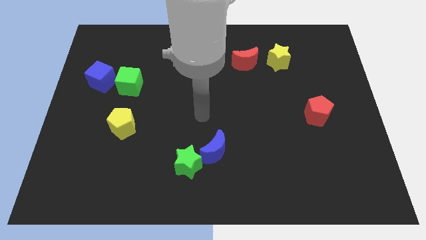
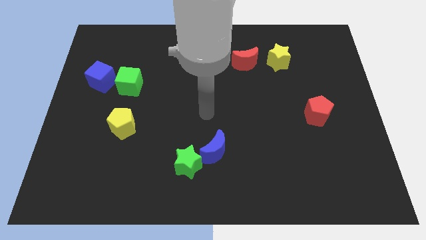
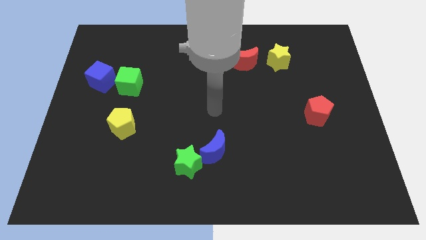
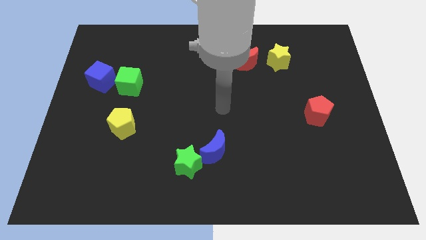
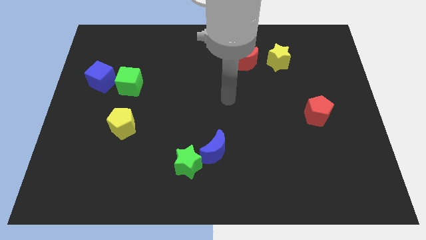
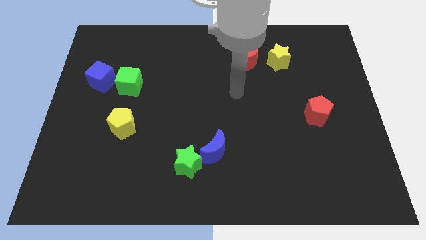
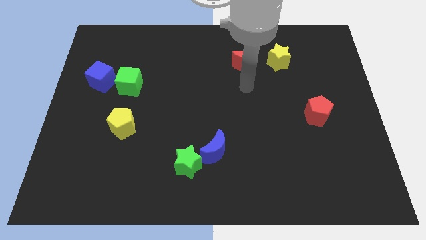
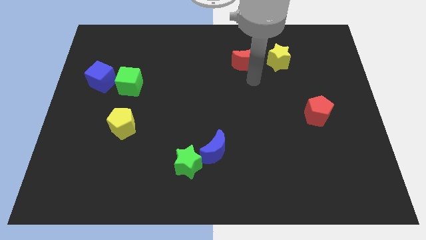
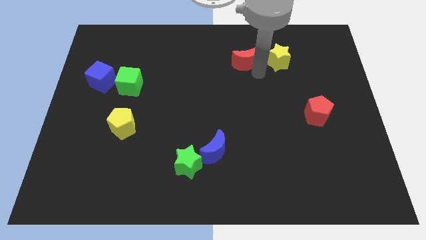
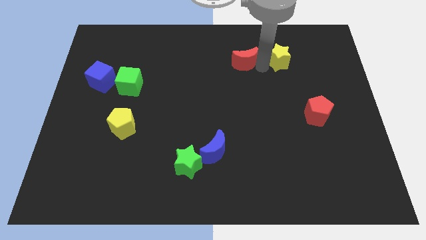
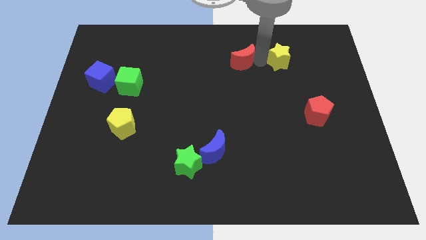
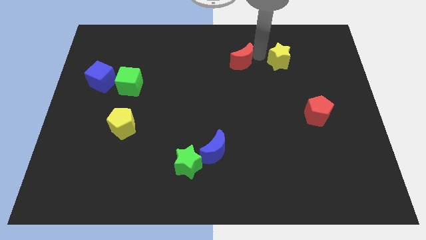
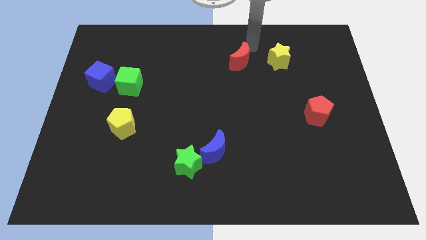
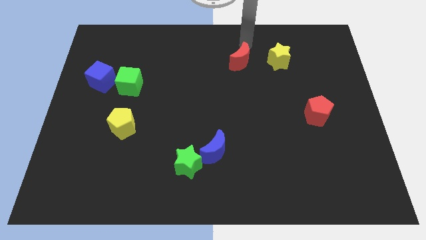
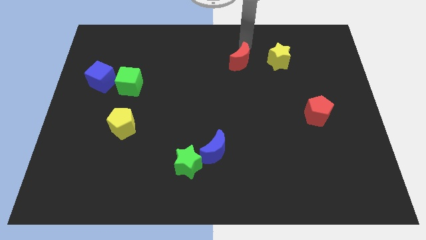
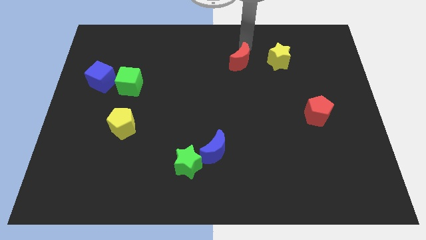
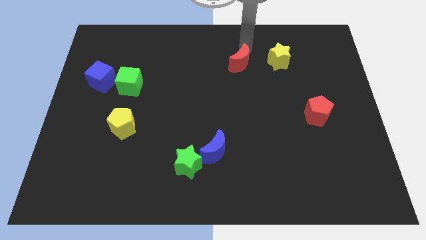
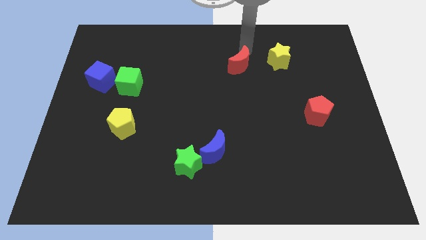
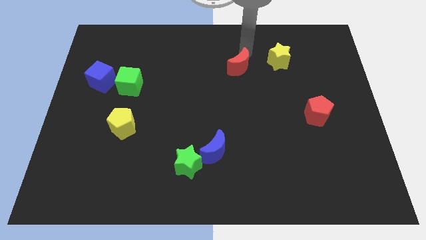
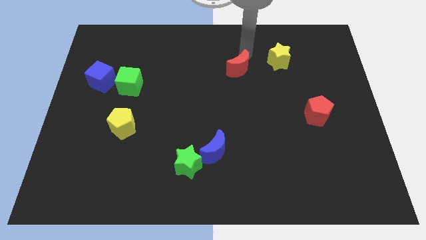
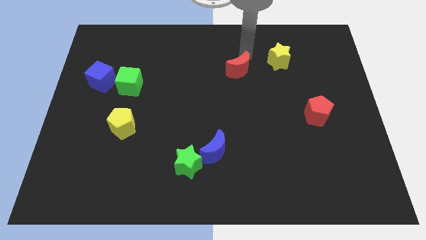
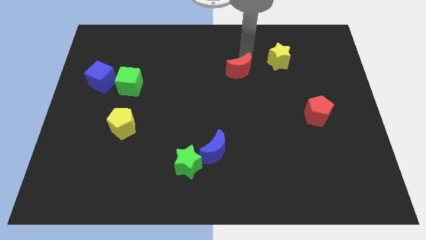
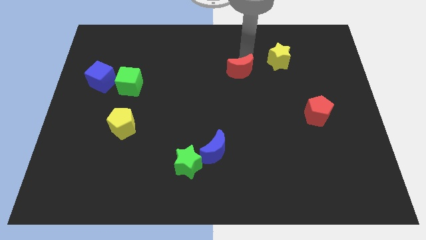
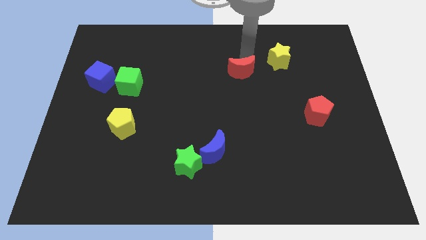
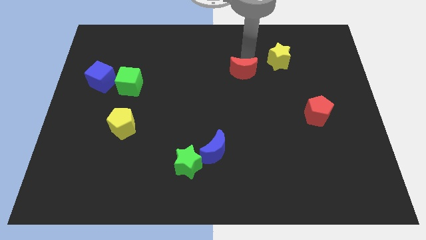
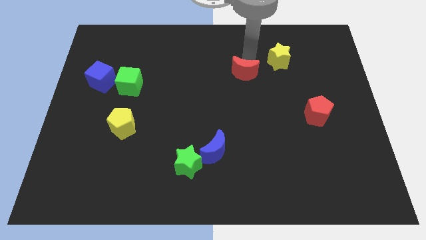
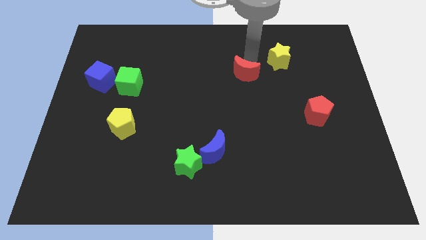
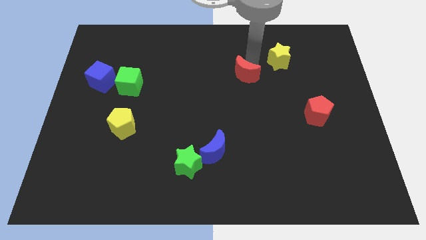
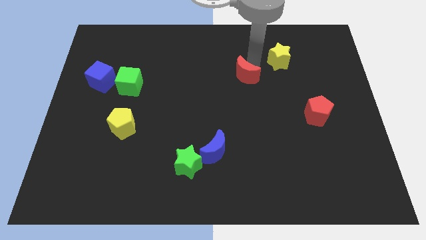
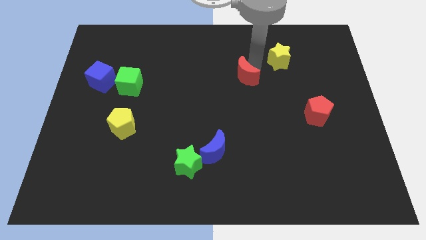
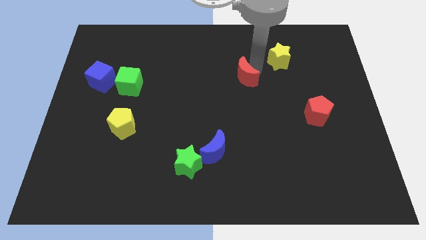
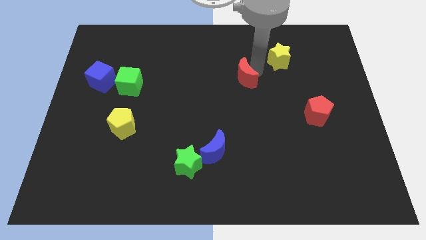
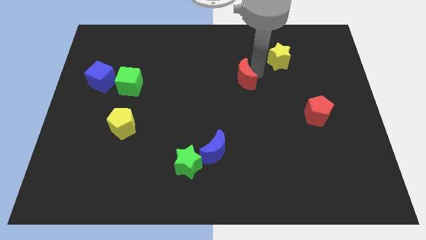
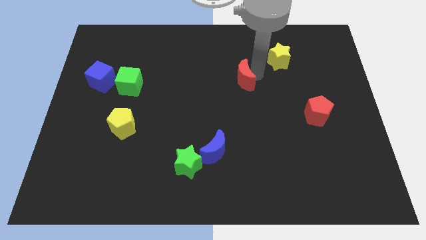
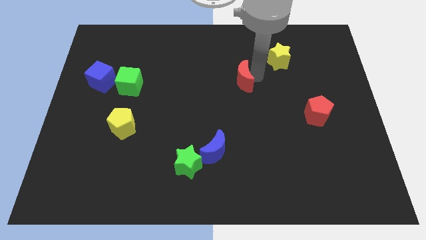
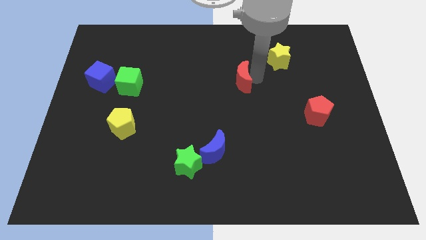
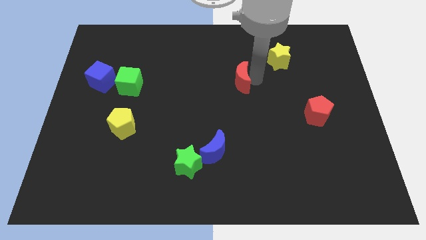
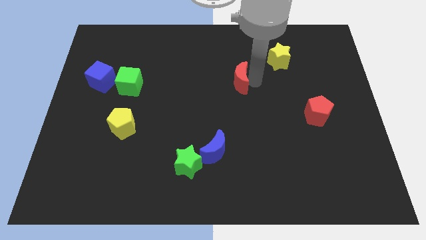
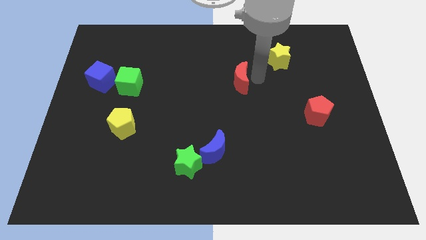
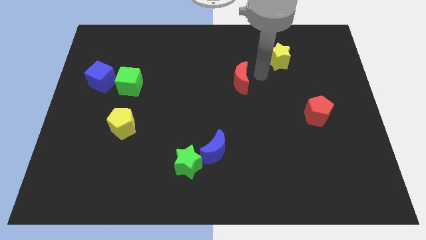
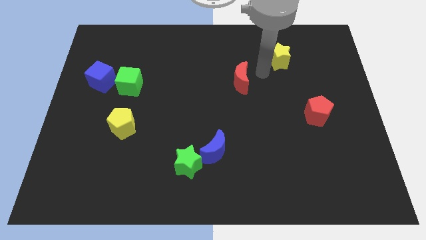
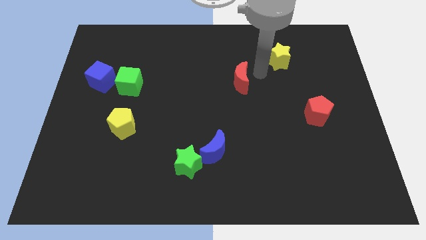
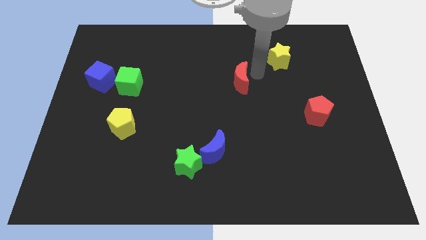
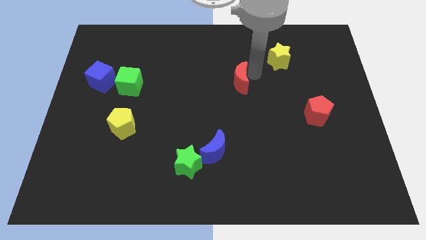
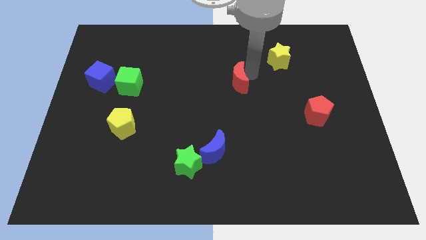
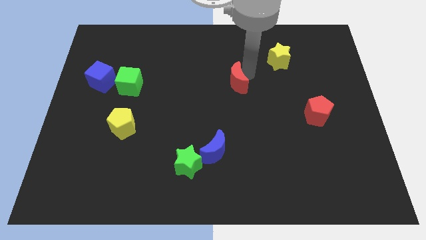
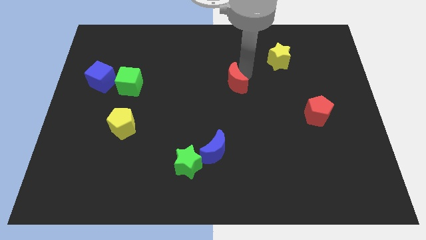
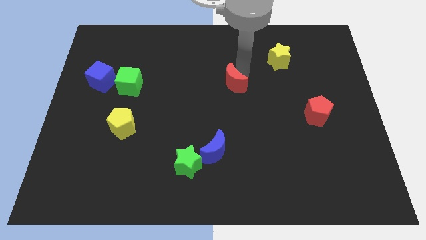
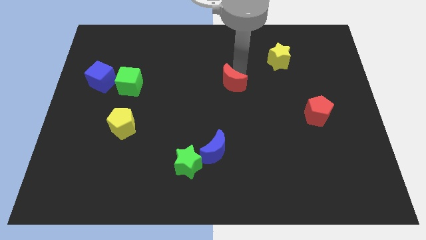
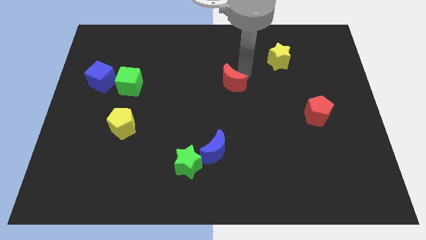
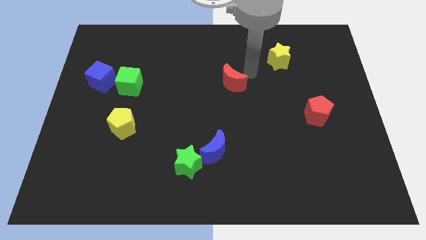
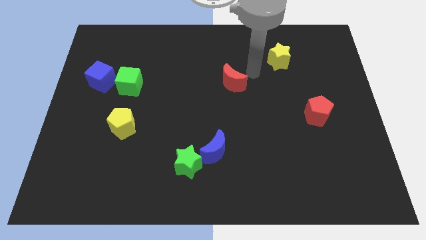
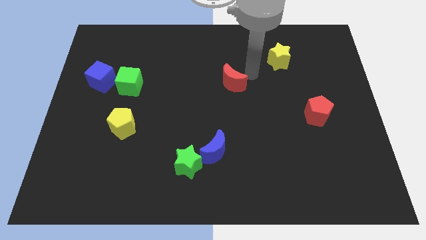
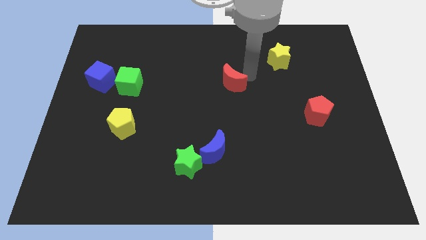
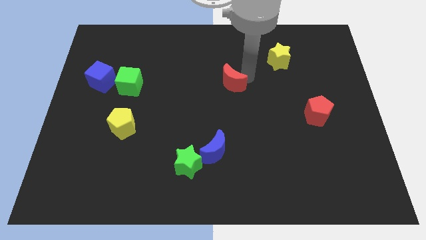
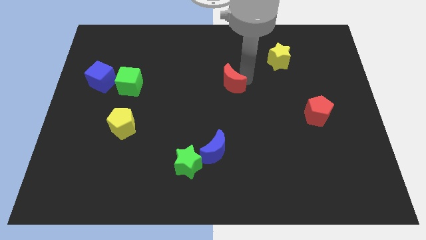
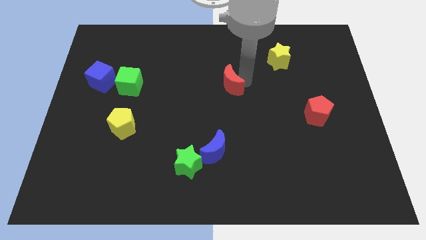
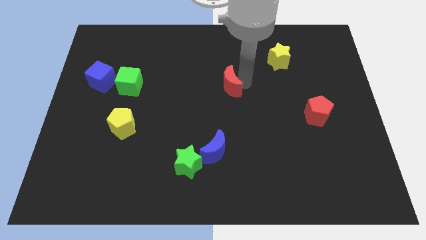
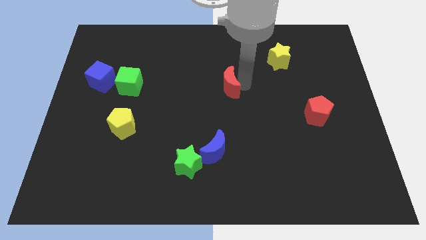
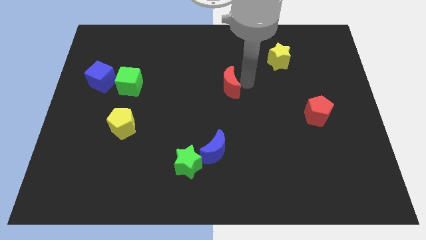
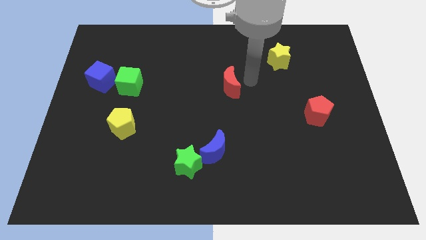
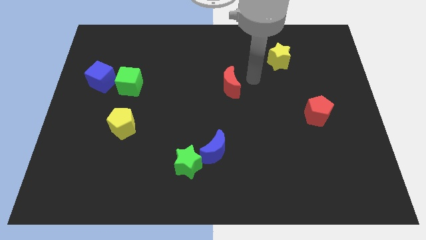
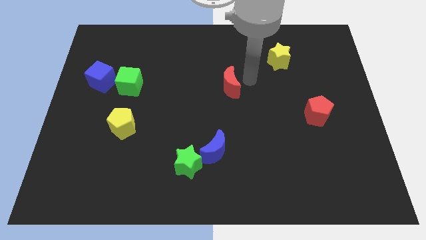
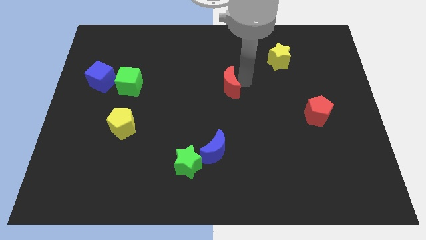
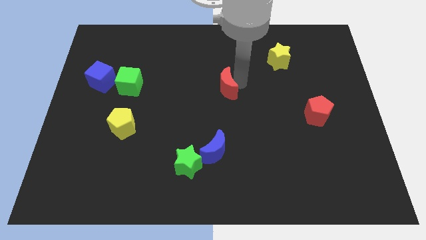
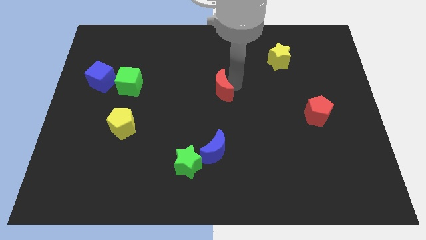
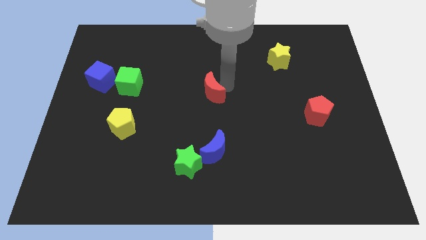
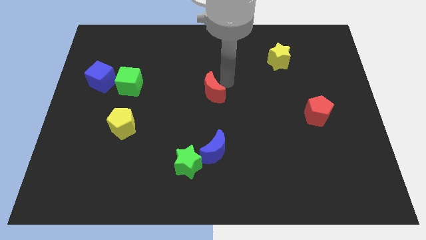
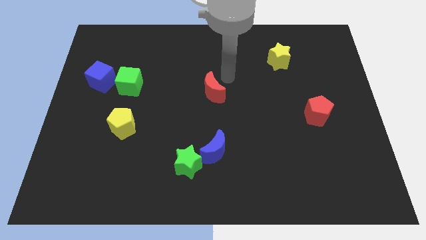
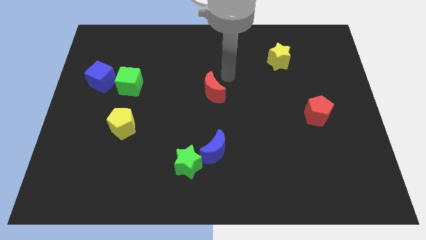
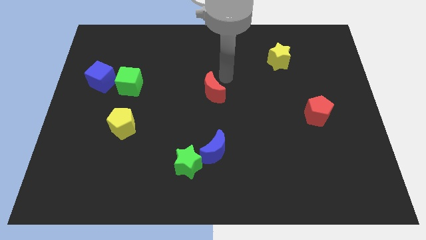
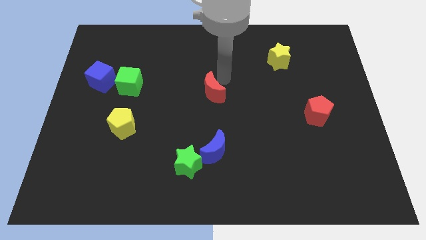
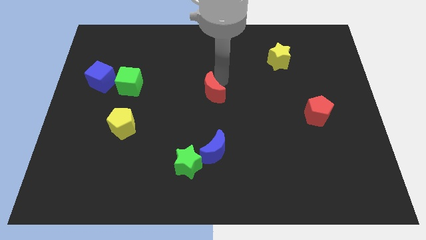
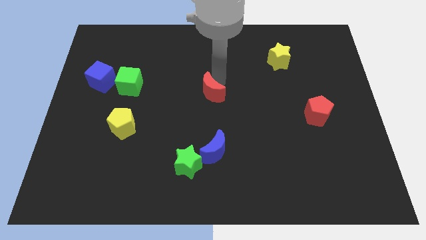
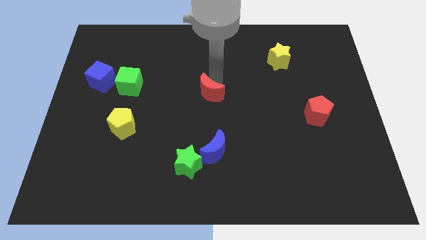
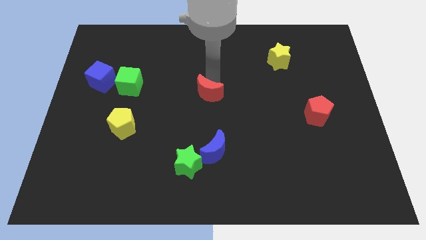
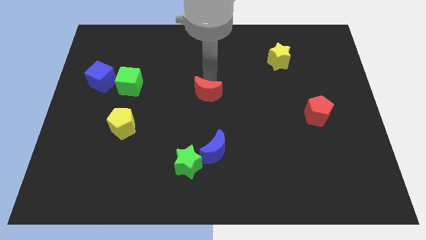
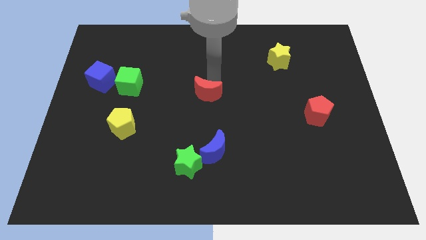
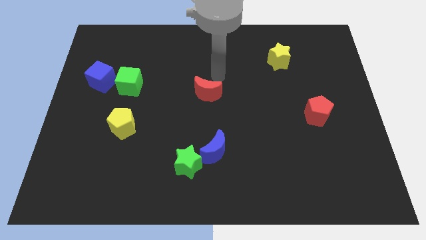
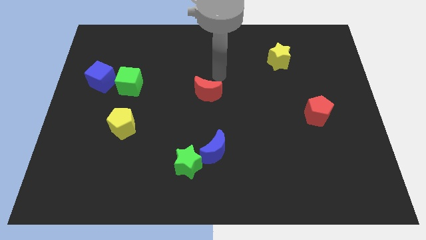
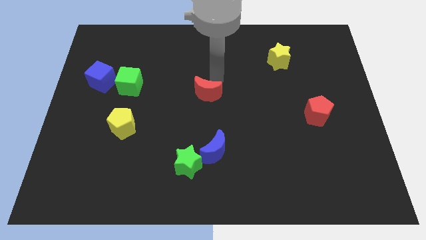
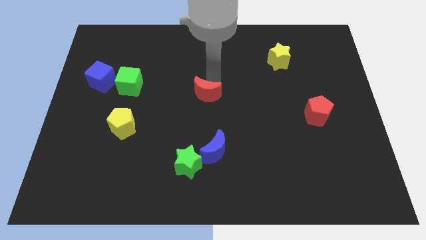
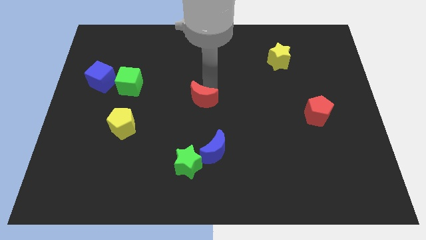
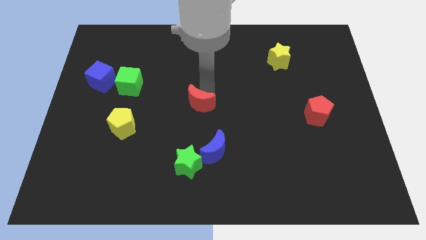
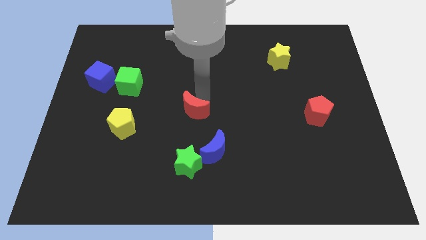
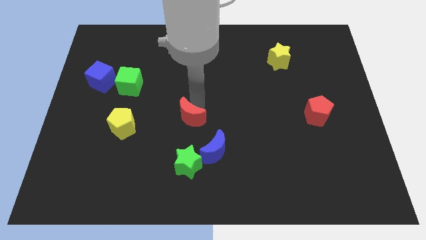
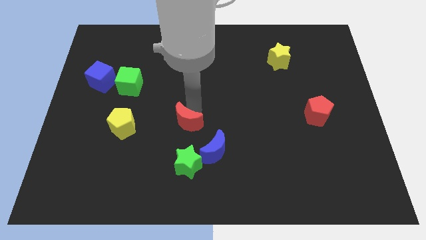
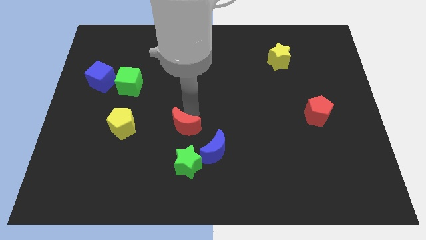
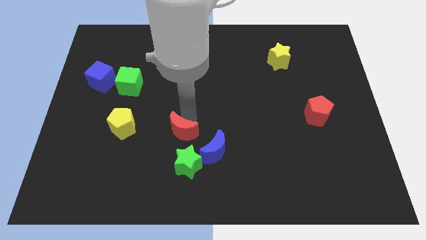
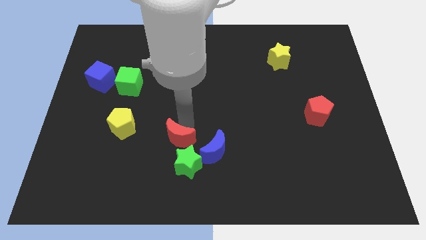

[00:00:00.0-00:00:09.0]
put the red moon just left of the blue moon
